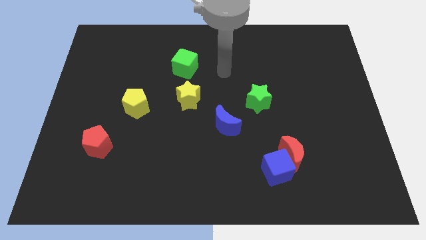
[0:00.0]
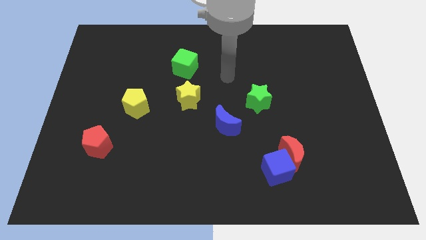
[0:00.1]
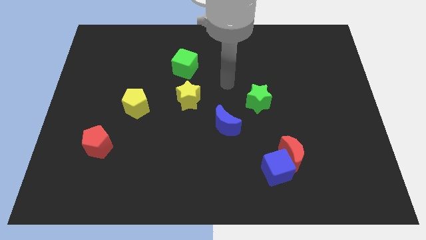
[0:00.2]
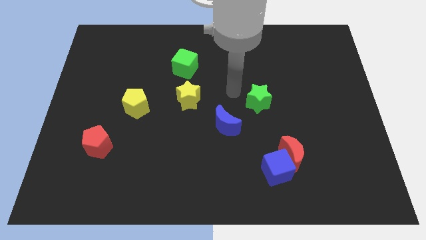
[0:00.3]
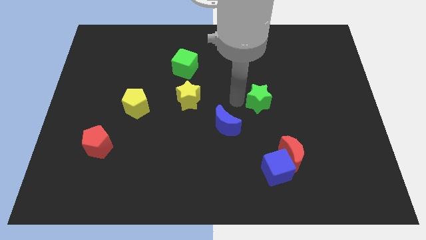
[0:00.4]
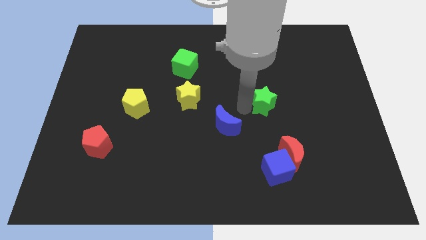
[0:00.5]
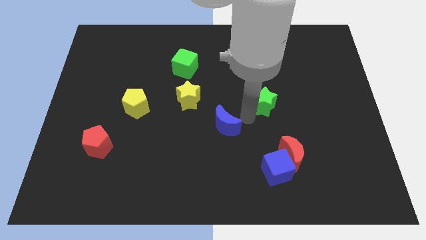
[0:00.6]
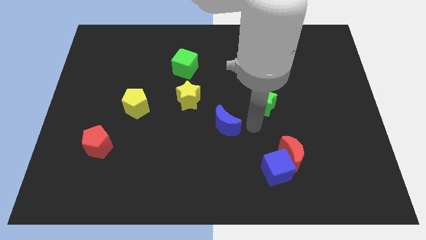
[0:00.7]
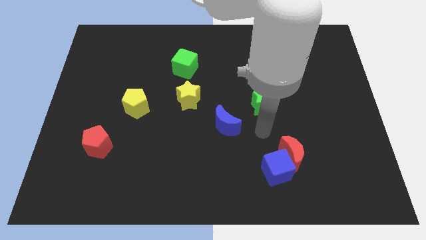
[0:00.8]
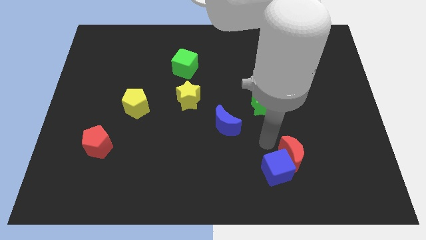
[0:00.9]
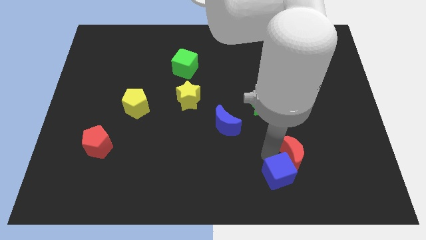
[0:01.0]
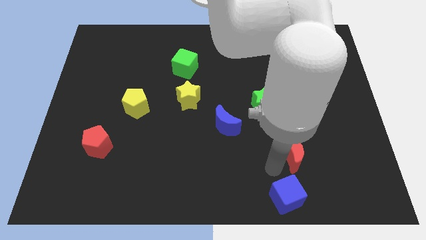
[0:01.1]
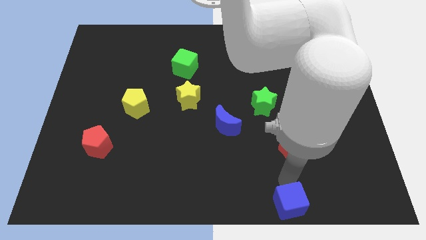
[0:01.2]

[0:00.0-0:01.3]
separate the red moon from the blue cube

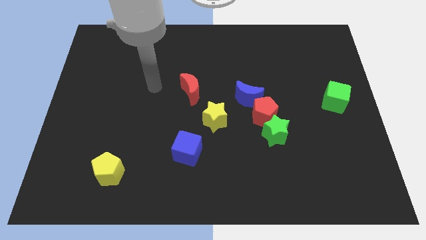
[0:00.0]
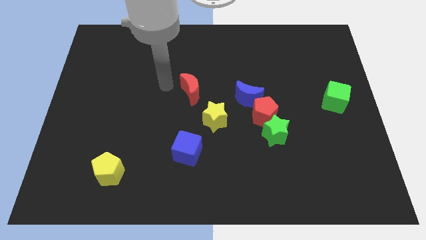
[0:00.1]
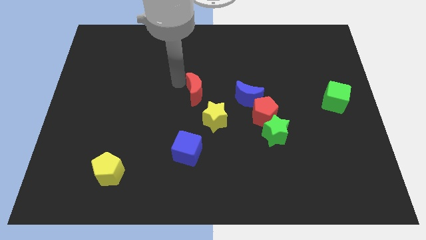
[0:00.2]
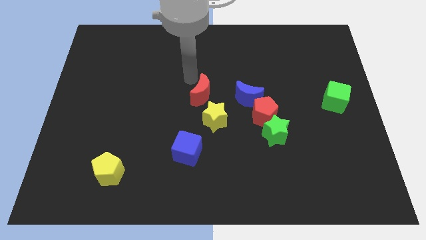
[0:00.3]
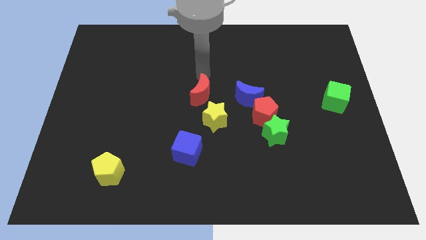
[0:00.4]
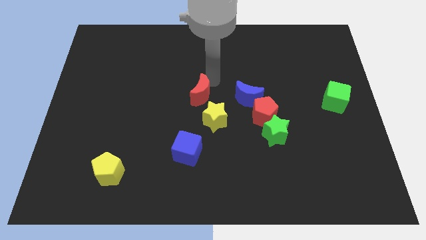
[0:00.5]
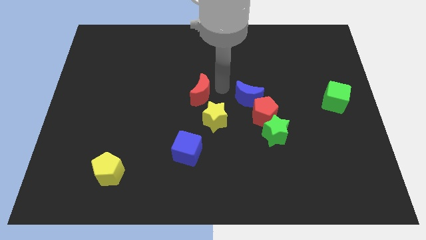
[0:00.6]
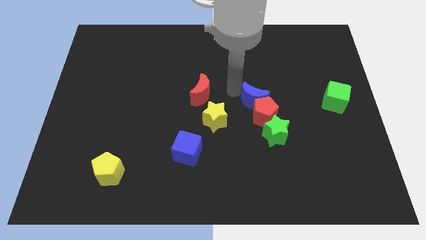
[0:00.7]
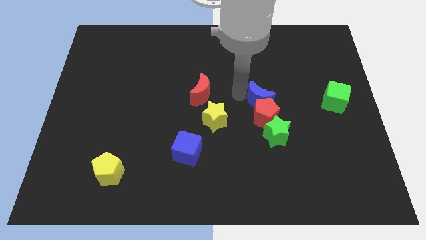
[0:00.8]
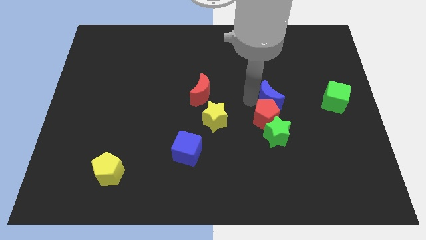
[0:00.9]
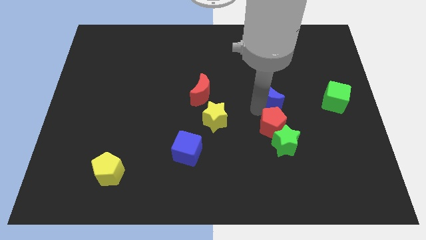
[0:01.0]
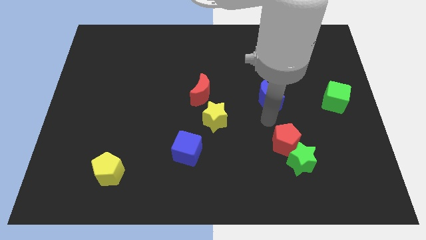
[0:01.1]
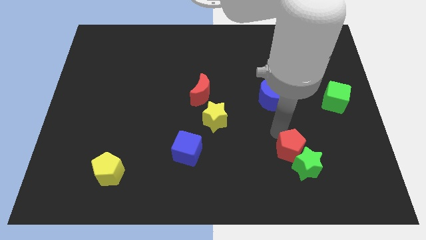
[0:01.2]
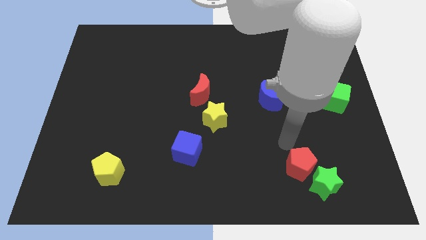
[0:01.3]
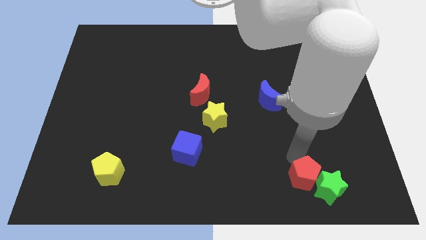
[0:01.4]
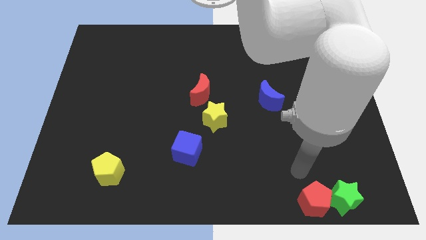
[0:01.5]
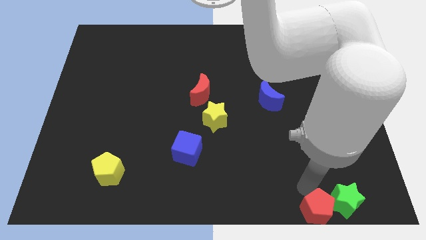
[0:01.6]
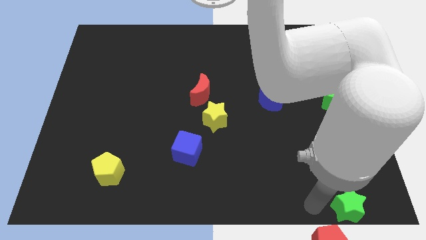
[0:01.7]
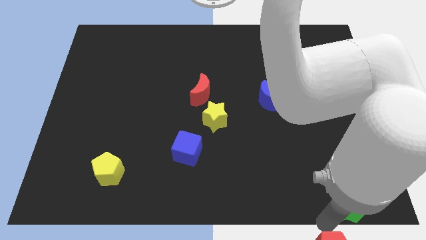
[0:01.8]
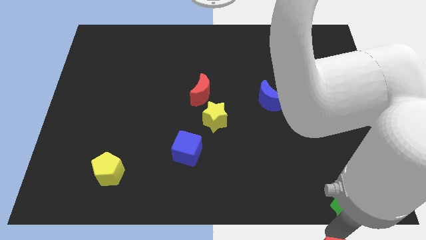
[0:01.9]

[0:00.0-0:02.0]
separate the green star from the red pentagon

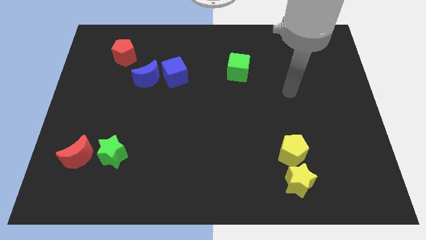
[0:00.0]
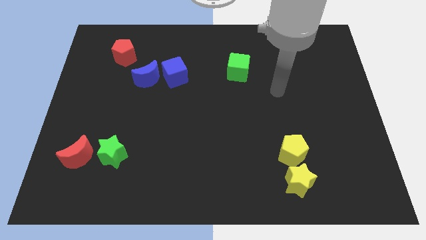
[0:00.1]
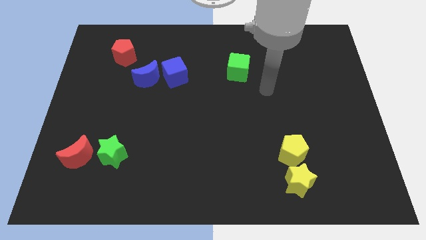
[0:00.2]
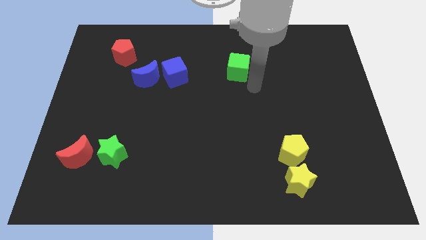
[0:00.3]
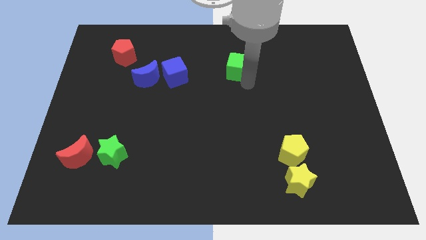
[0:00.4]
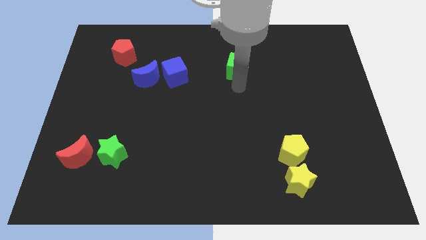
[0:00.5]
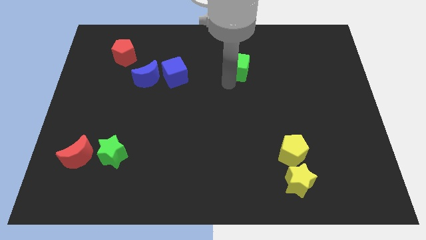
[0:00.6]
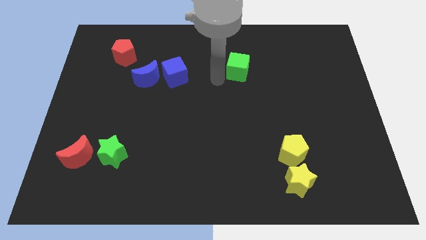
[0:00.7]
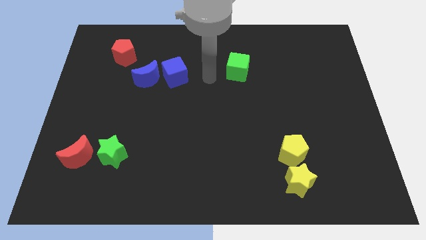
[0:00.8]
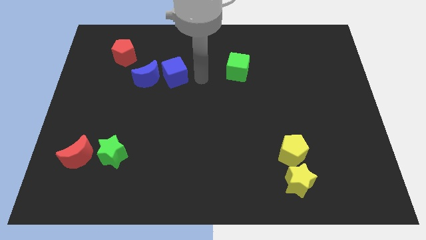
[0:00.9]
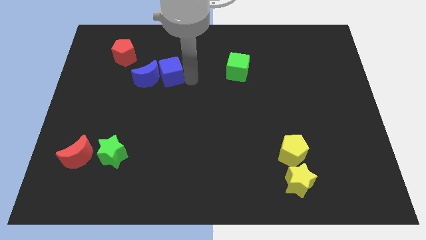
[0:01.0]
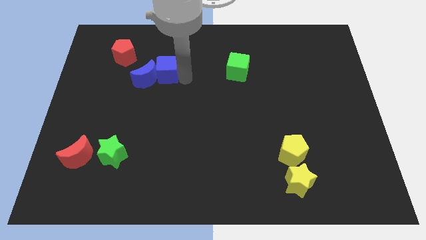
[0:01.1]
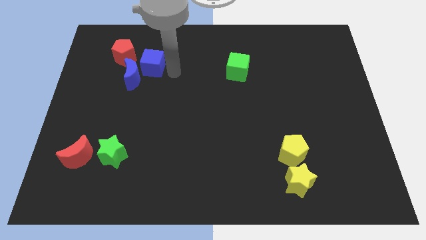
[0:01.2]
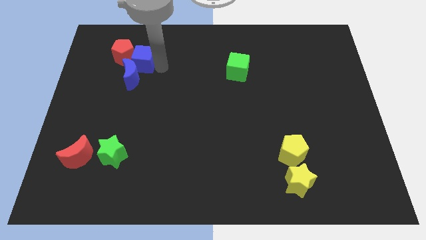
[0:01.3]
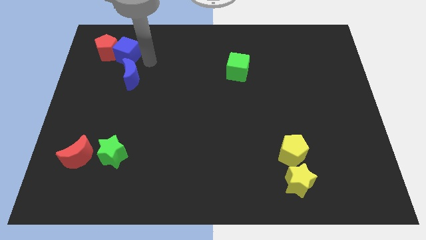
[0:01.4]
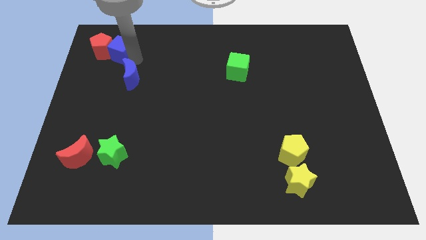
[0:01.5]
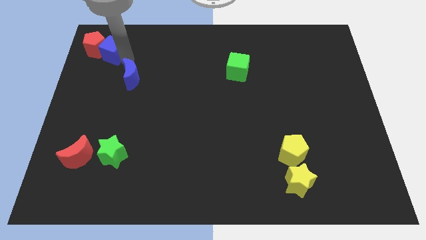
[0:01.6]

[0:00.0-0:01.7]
move the blue moon away from the blue cube

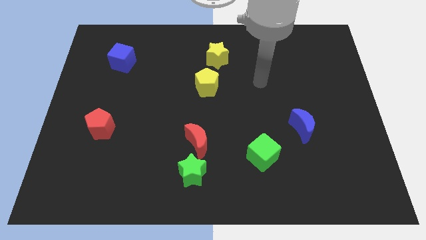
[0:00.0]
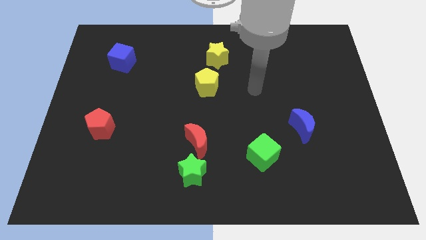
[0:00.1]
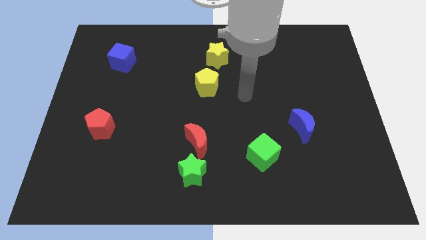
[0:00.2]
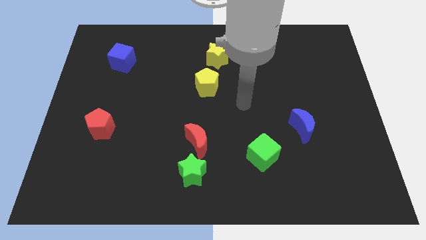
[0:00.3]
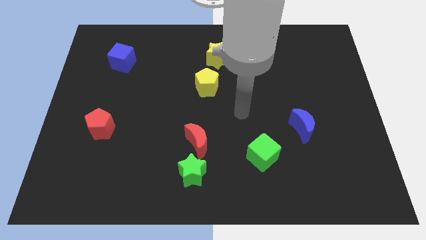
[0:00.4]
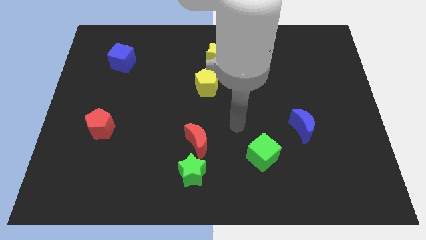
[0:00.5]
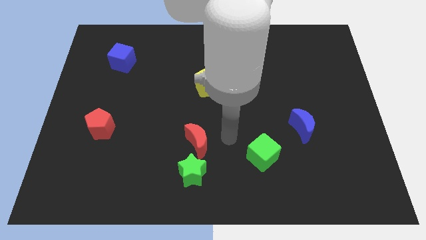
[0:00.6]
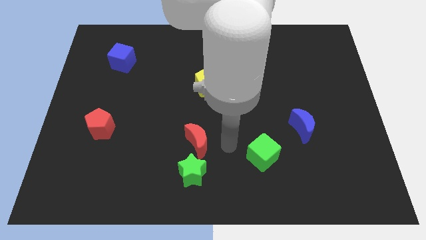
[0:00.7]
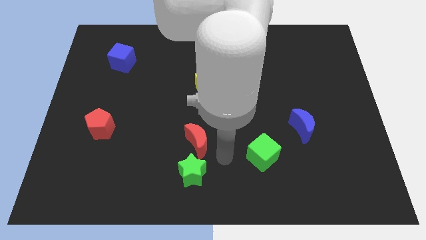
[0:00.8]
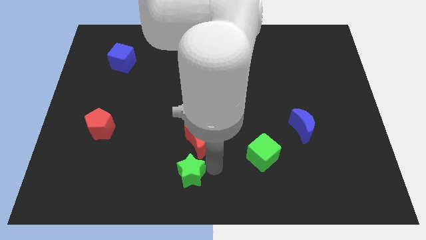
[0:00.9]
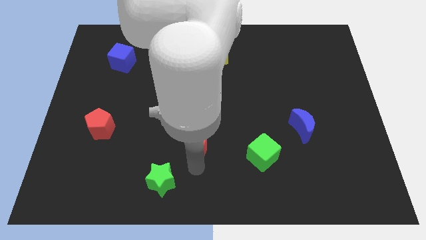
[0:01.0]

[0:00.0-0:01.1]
pull the red moon apart from the green star

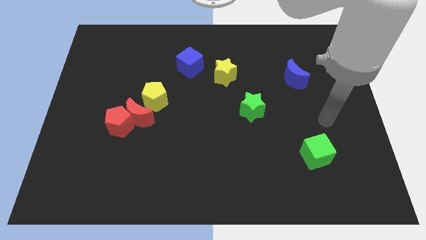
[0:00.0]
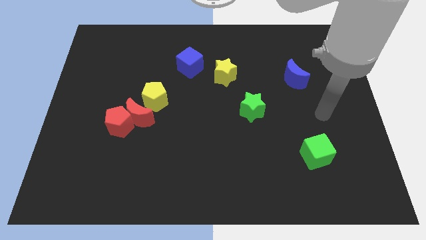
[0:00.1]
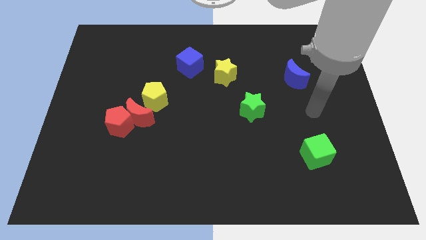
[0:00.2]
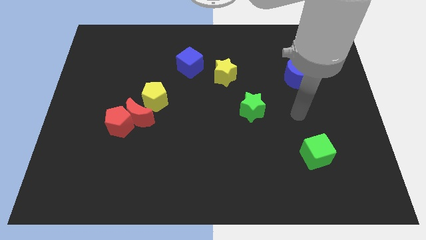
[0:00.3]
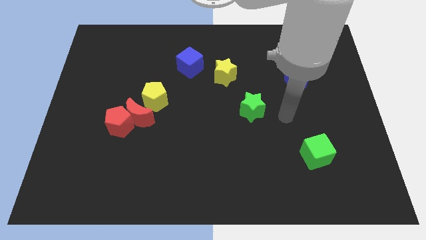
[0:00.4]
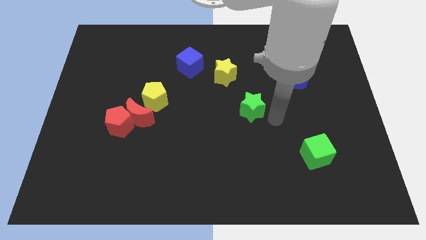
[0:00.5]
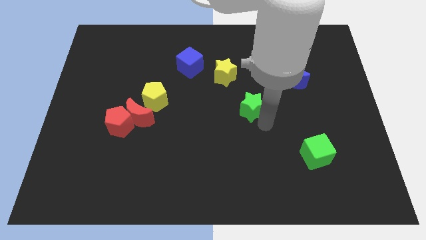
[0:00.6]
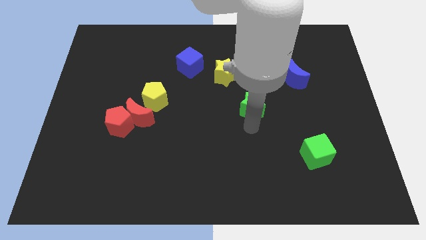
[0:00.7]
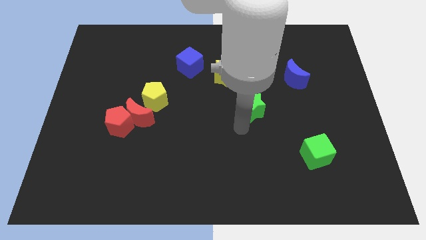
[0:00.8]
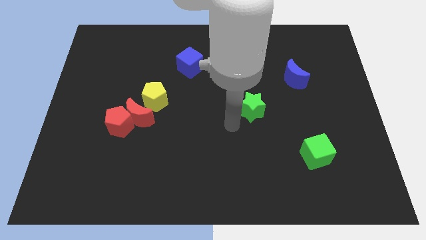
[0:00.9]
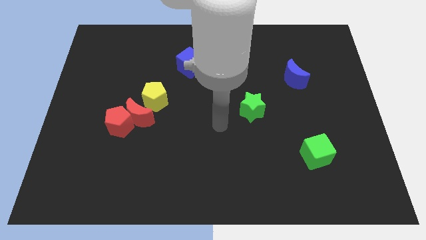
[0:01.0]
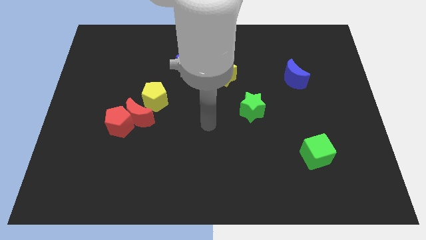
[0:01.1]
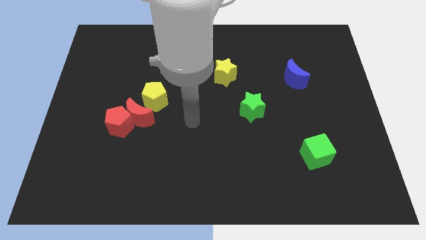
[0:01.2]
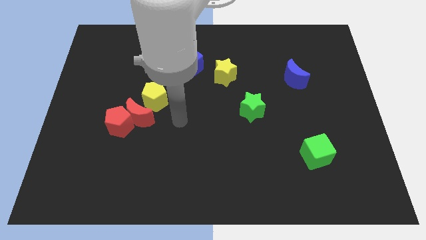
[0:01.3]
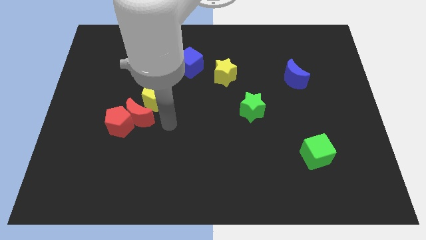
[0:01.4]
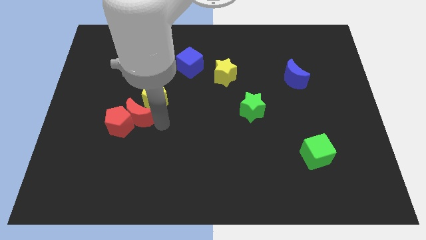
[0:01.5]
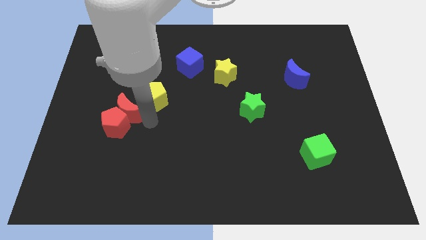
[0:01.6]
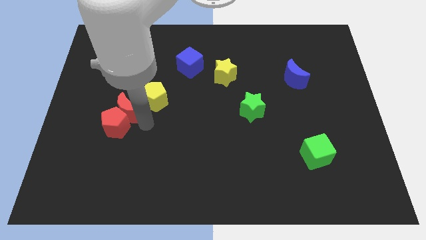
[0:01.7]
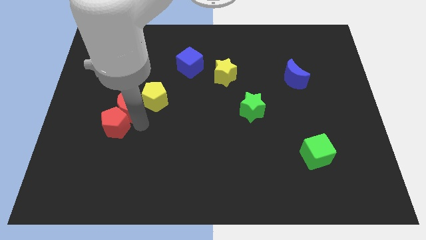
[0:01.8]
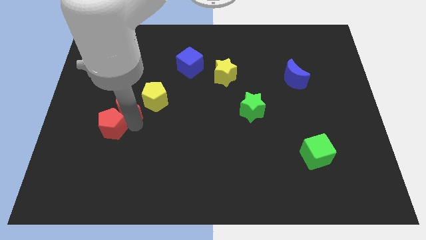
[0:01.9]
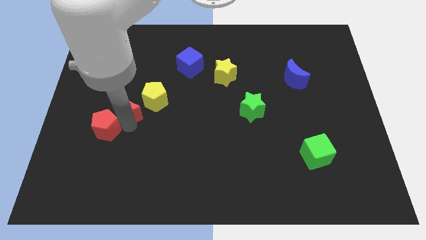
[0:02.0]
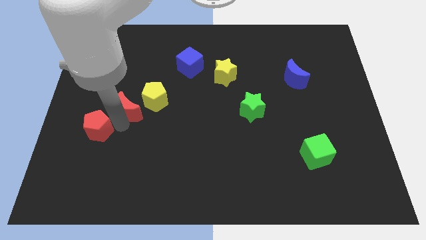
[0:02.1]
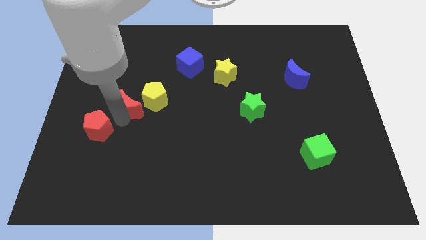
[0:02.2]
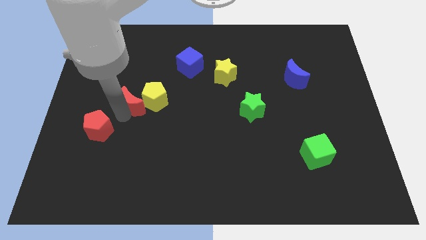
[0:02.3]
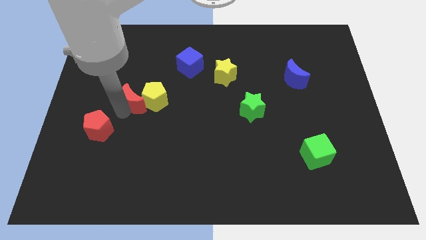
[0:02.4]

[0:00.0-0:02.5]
pull the red pentagon apart from the red moon

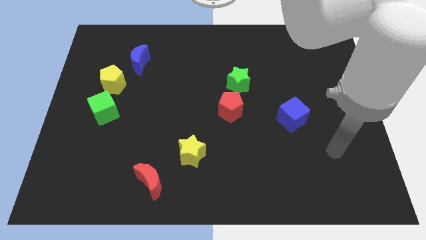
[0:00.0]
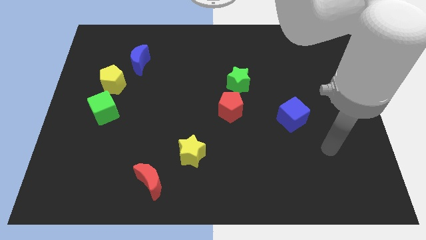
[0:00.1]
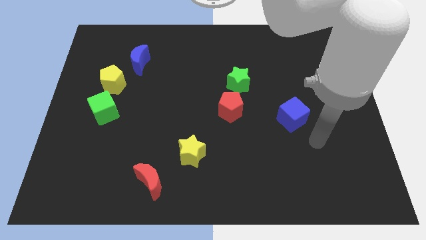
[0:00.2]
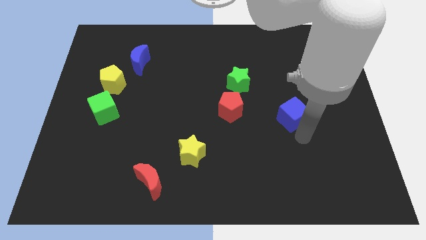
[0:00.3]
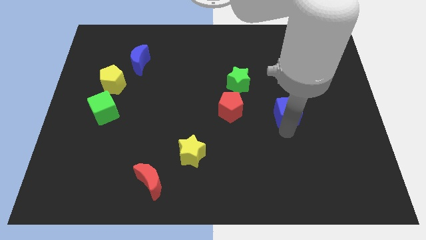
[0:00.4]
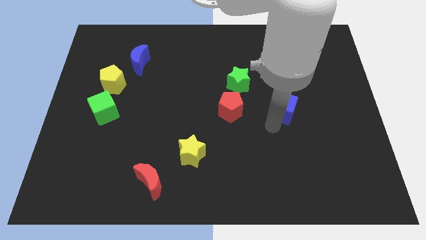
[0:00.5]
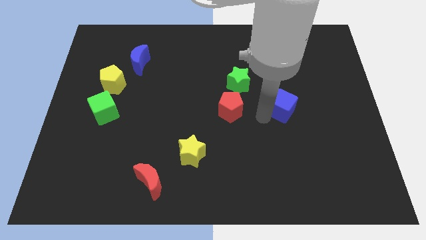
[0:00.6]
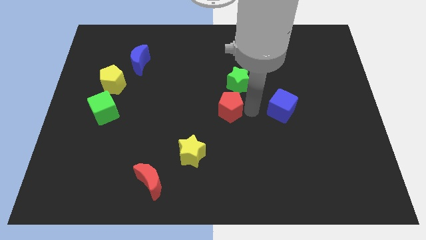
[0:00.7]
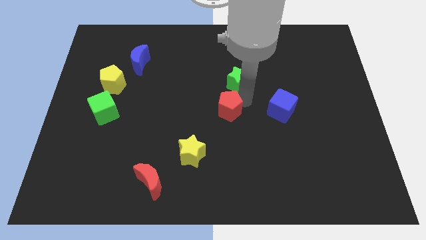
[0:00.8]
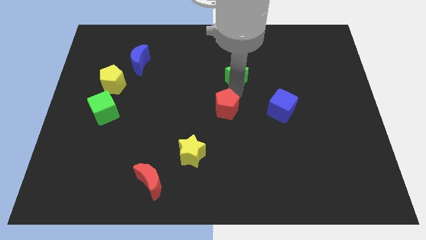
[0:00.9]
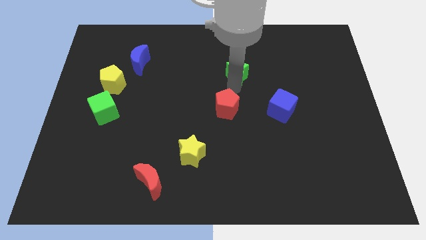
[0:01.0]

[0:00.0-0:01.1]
move the red pentagon away from the green star
